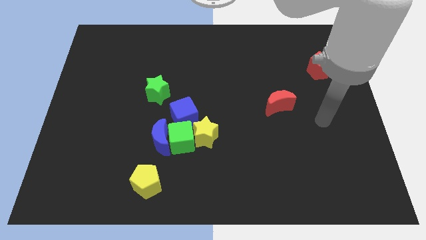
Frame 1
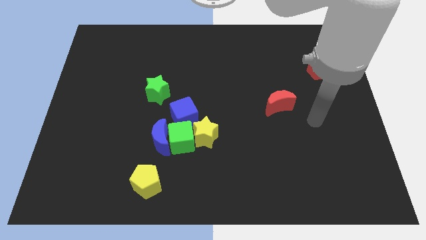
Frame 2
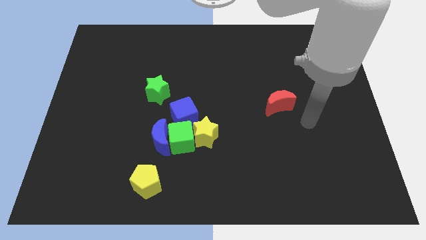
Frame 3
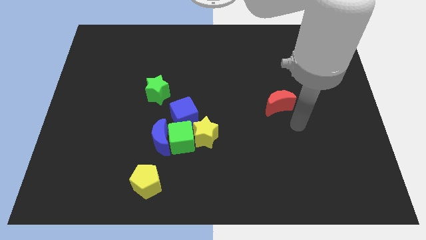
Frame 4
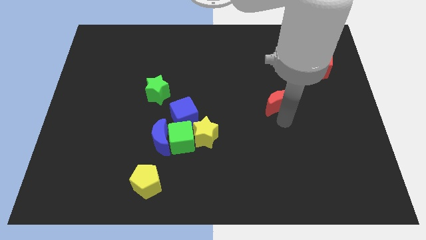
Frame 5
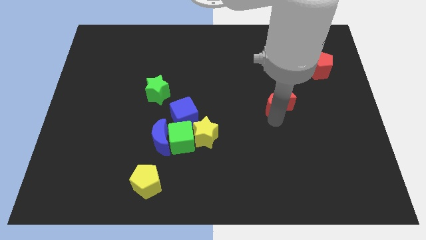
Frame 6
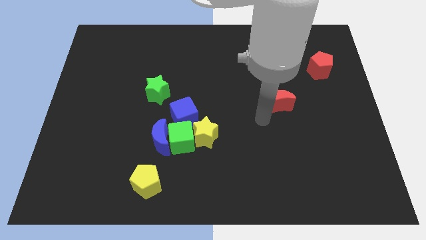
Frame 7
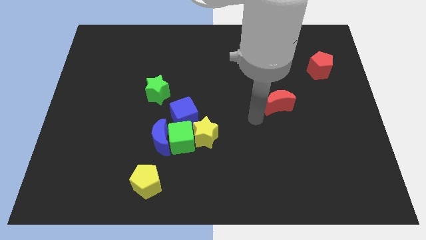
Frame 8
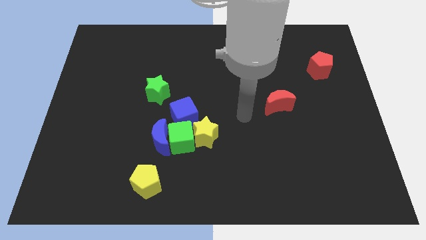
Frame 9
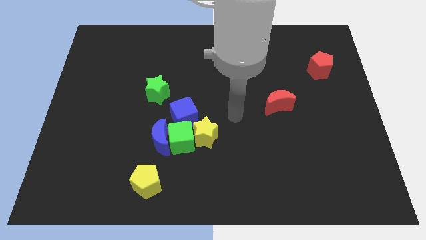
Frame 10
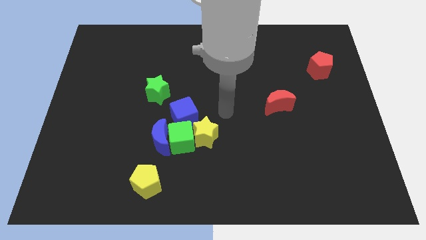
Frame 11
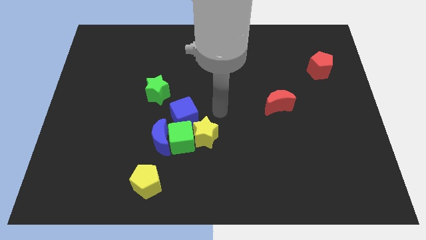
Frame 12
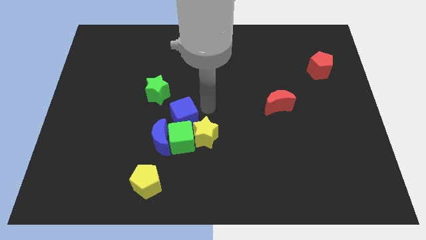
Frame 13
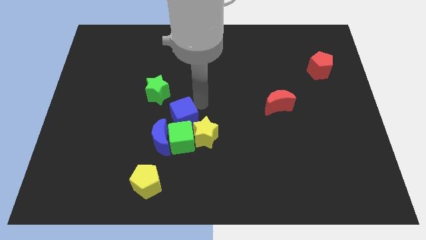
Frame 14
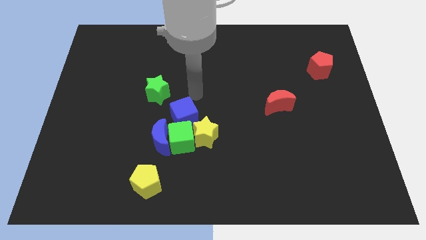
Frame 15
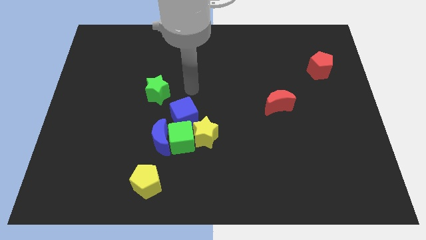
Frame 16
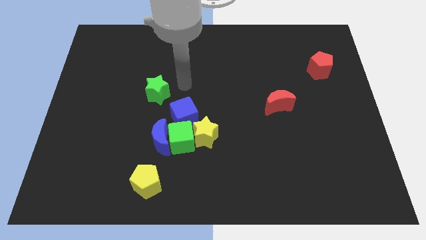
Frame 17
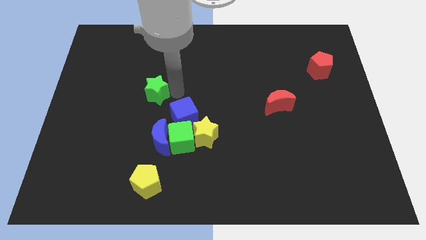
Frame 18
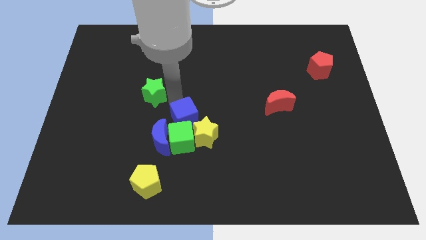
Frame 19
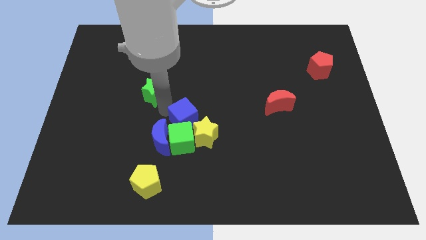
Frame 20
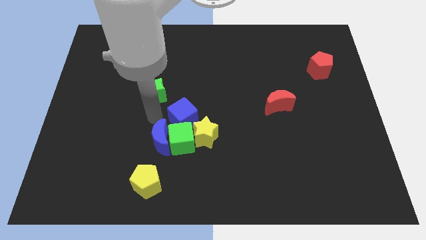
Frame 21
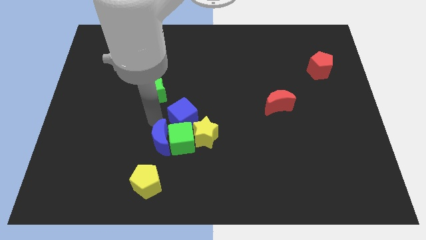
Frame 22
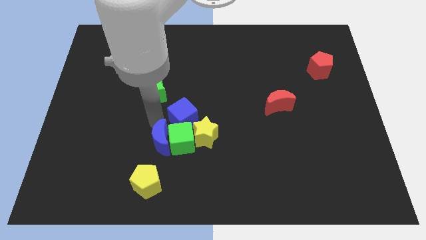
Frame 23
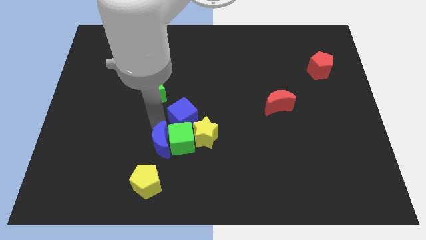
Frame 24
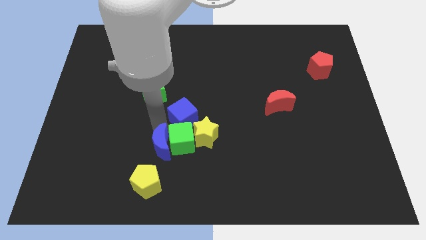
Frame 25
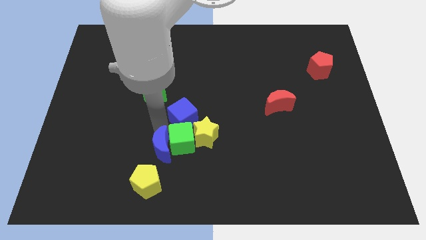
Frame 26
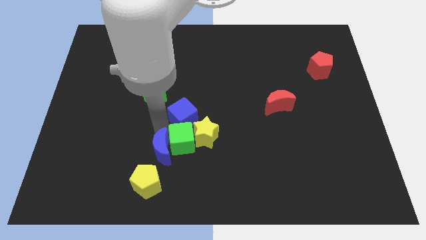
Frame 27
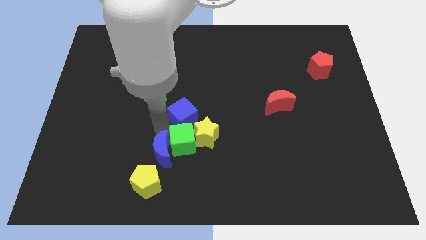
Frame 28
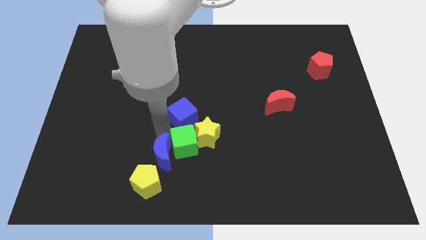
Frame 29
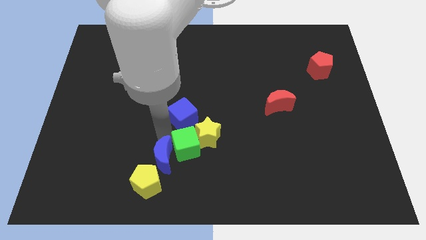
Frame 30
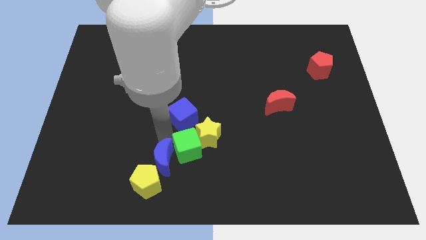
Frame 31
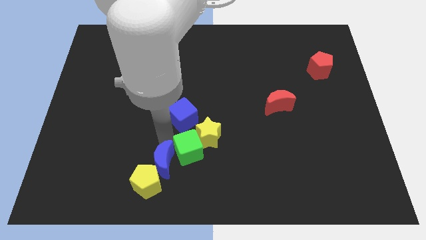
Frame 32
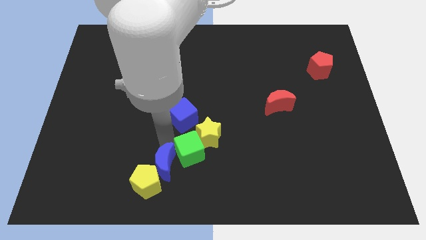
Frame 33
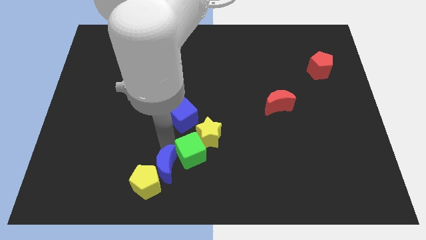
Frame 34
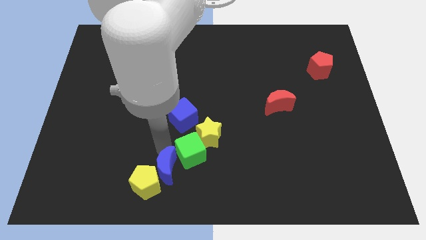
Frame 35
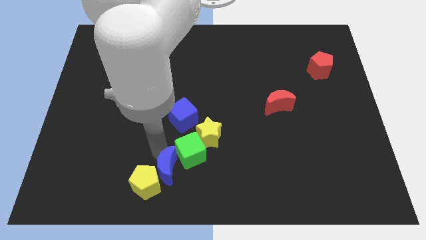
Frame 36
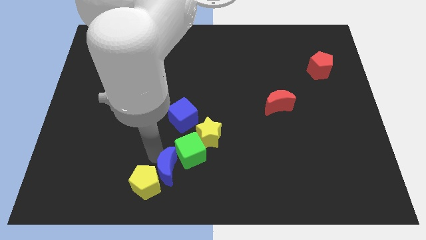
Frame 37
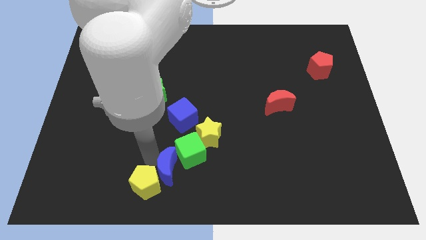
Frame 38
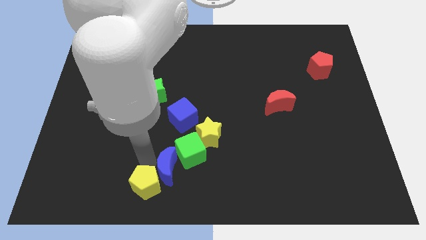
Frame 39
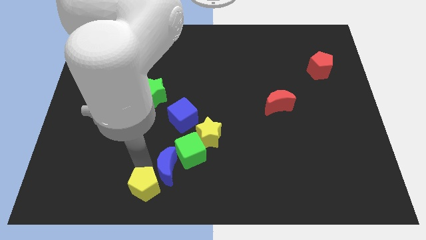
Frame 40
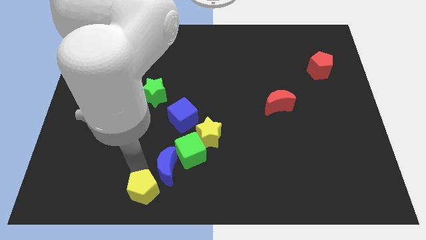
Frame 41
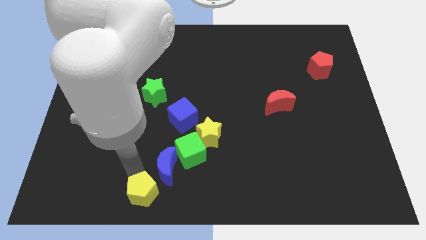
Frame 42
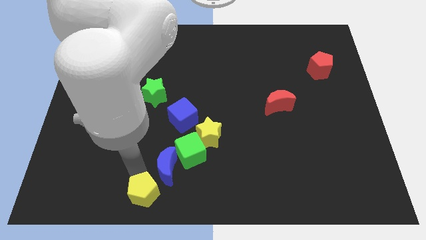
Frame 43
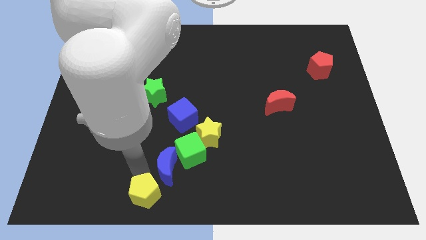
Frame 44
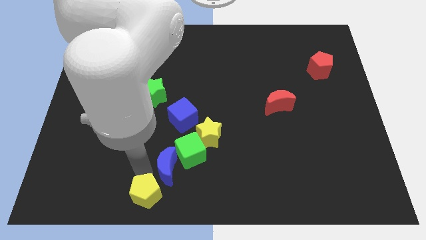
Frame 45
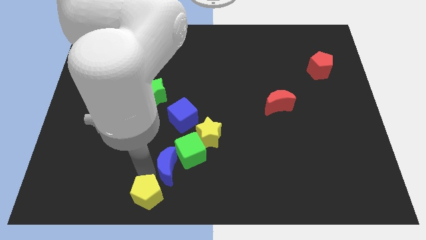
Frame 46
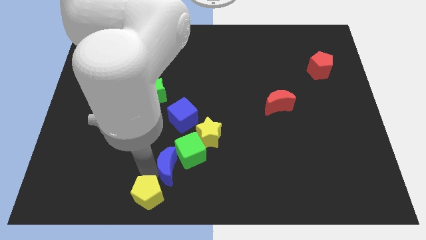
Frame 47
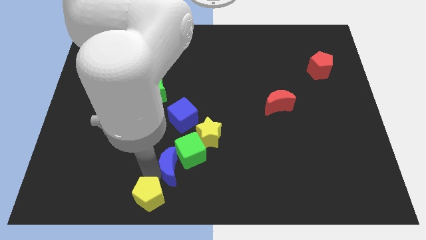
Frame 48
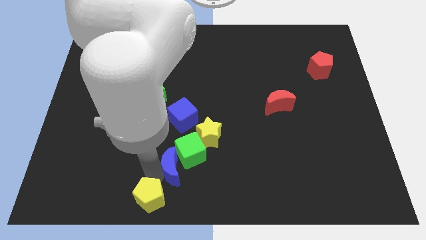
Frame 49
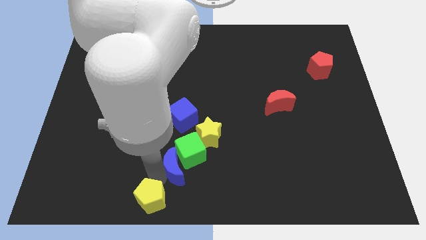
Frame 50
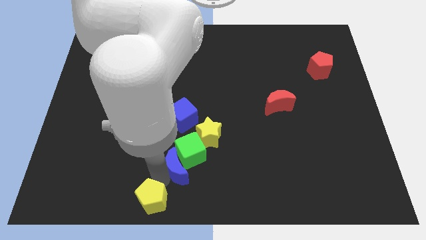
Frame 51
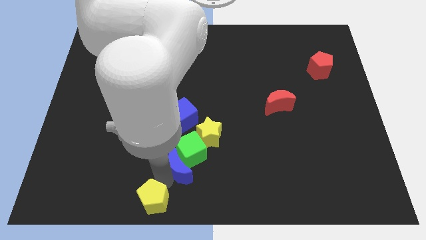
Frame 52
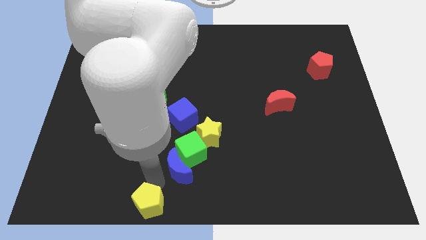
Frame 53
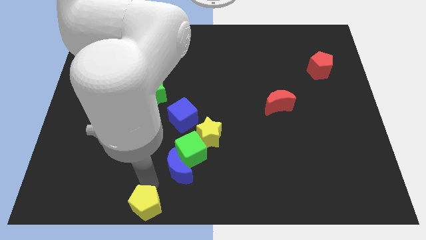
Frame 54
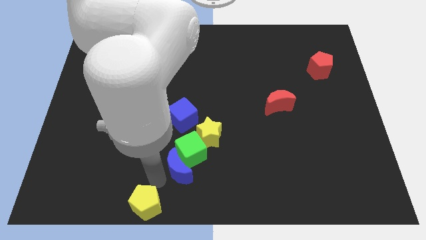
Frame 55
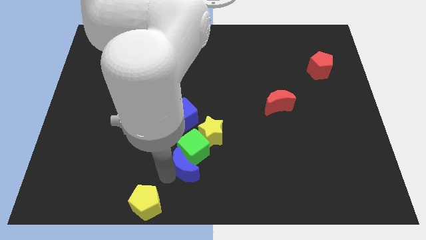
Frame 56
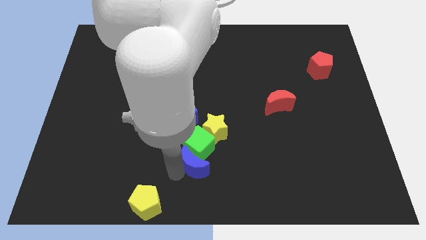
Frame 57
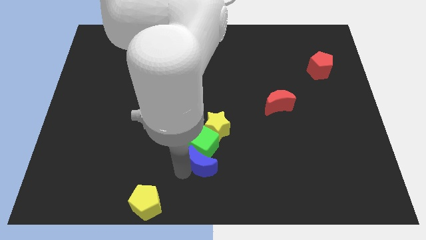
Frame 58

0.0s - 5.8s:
slightly push the blue moon right

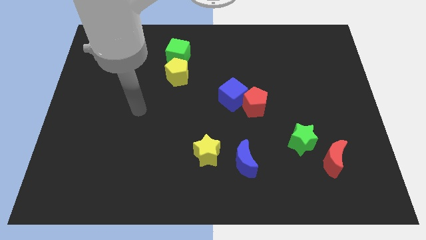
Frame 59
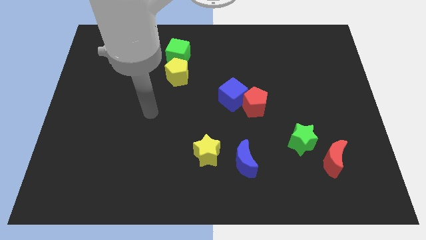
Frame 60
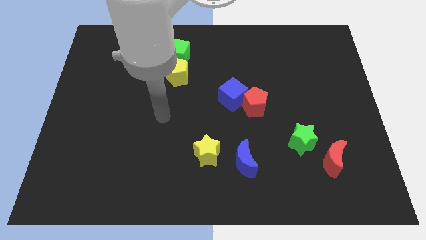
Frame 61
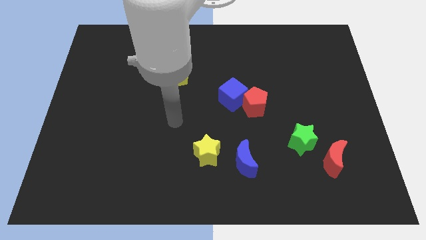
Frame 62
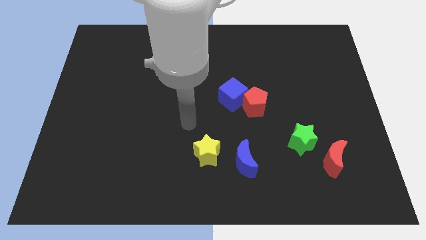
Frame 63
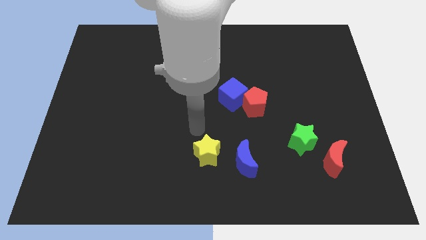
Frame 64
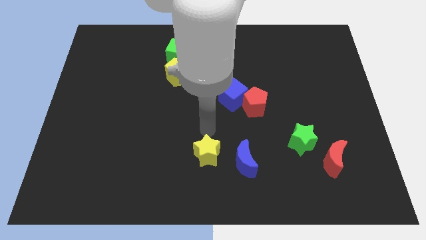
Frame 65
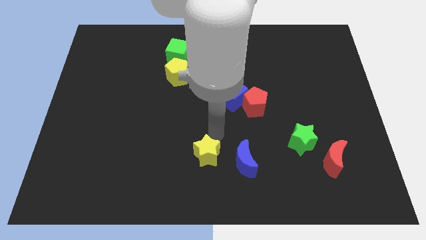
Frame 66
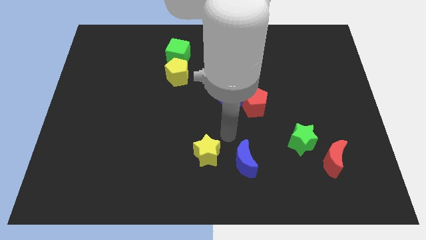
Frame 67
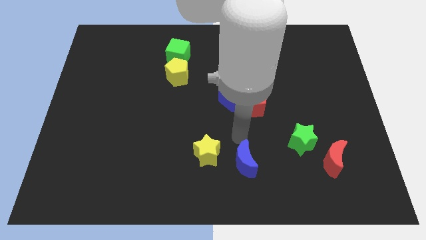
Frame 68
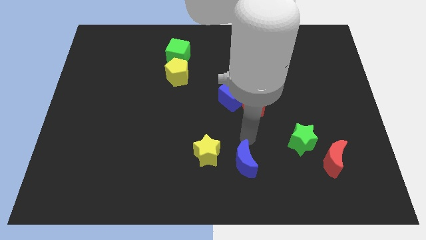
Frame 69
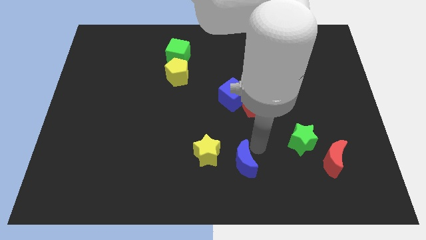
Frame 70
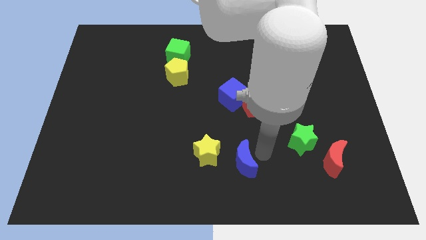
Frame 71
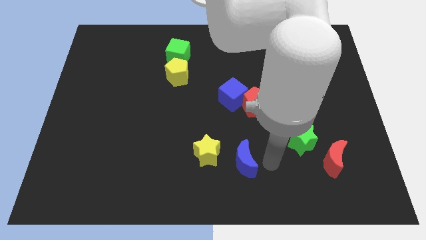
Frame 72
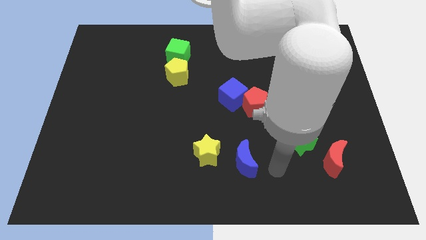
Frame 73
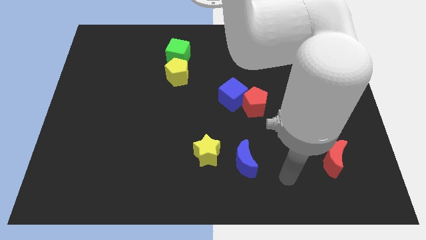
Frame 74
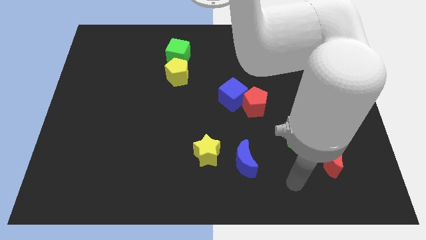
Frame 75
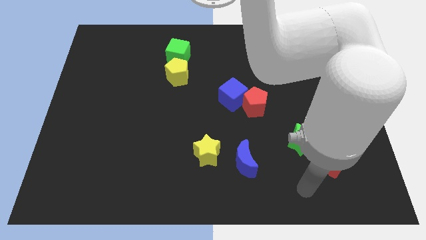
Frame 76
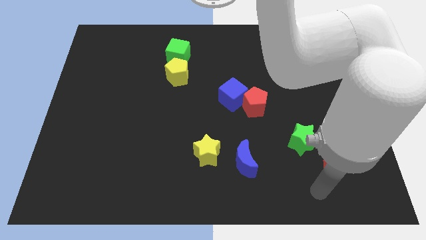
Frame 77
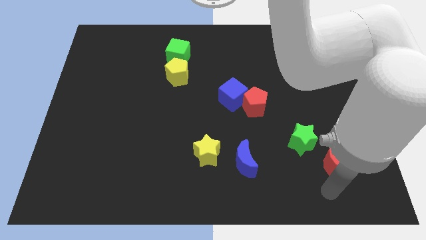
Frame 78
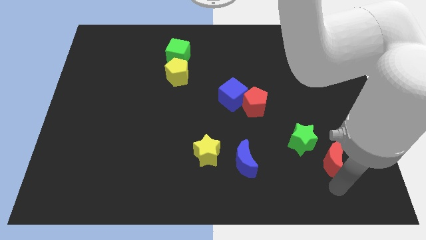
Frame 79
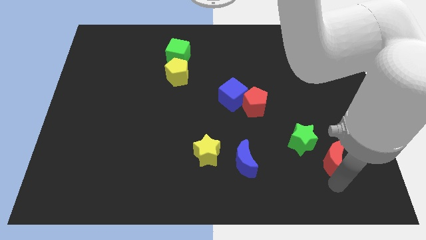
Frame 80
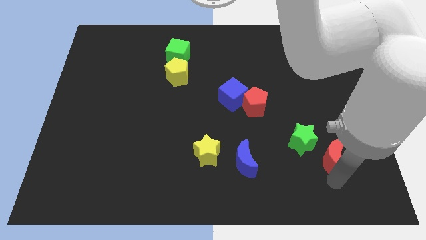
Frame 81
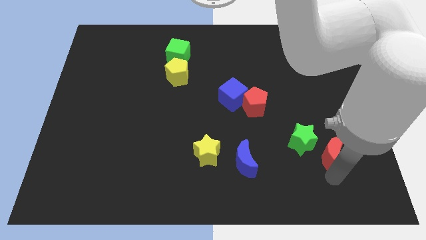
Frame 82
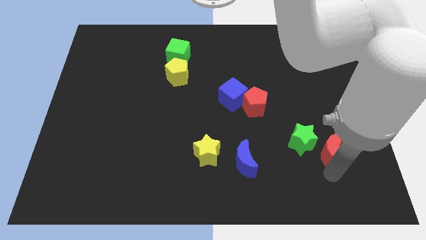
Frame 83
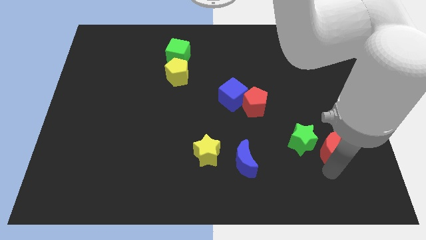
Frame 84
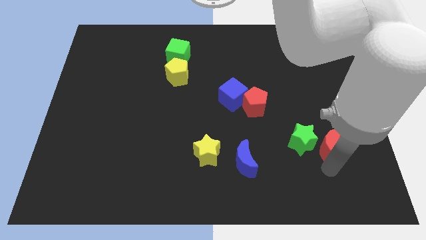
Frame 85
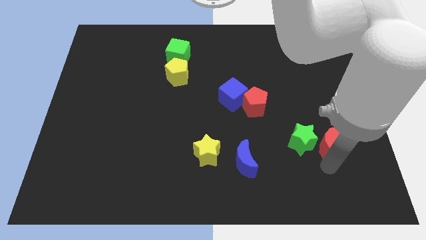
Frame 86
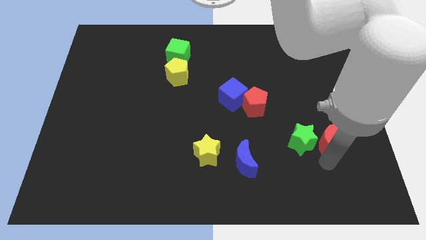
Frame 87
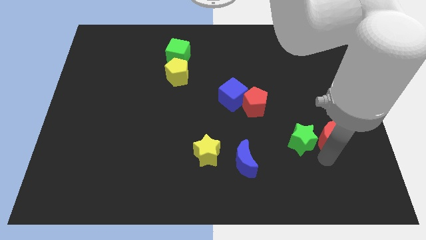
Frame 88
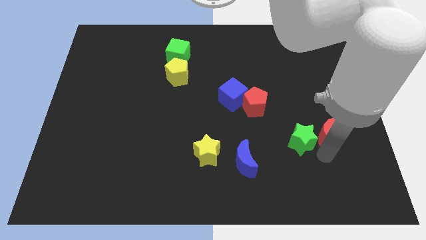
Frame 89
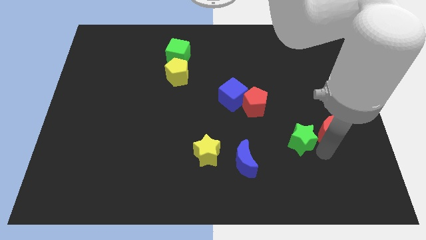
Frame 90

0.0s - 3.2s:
push the red moon slightly upwards
